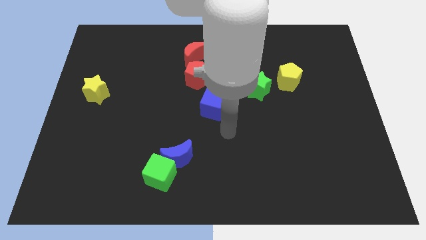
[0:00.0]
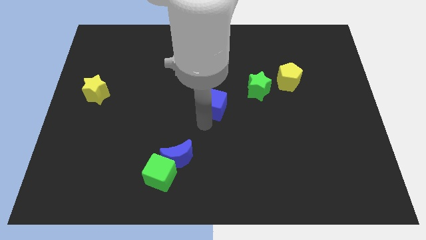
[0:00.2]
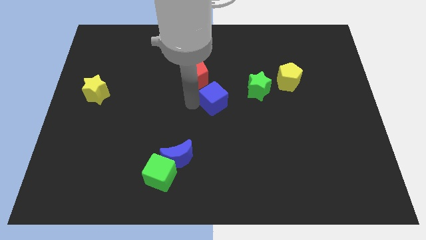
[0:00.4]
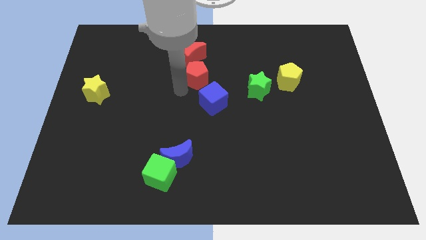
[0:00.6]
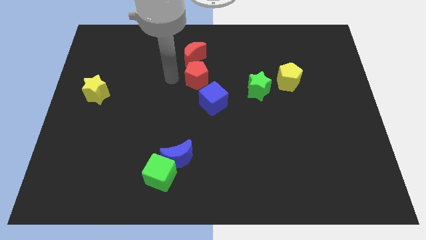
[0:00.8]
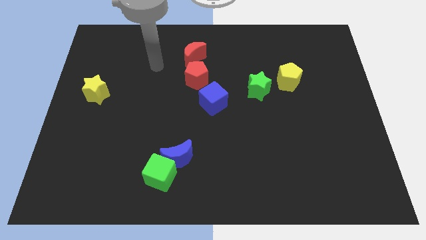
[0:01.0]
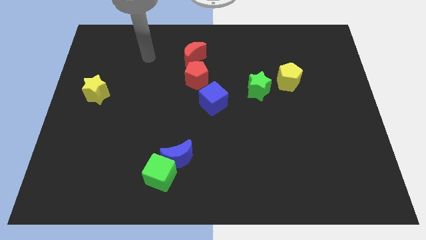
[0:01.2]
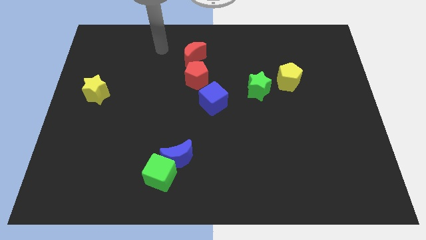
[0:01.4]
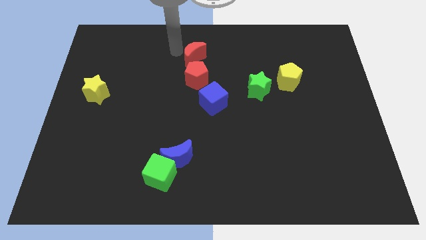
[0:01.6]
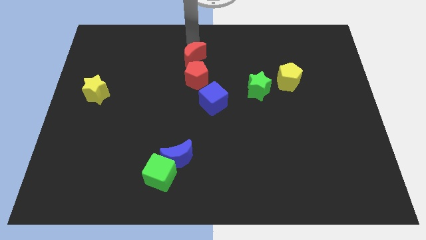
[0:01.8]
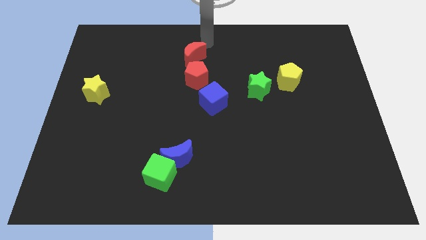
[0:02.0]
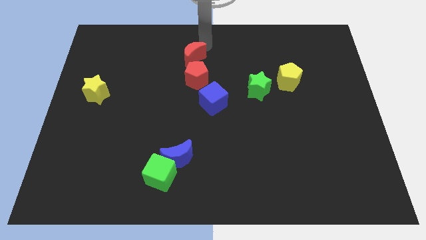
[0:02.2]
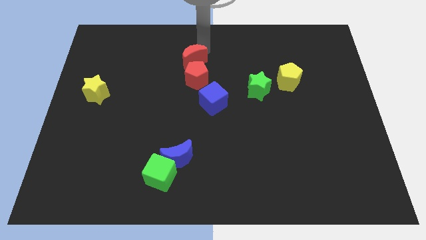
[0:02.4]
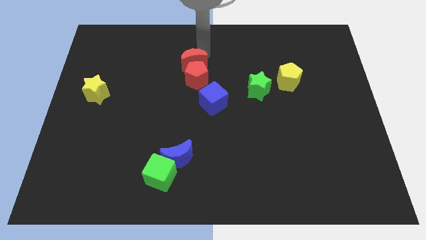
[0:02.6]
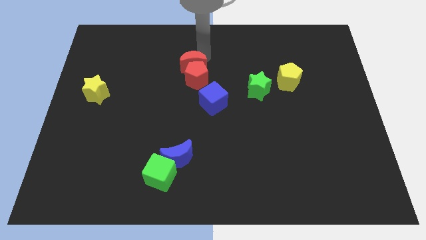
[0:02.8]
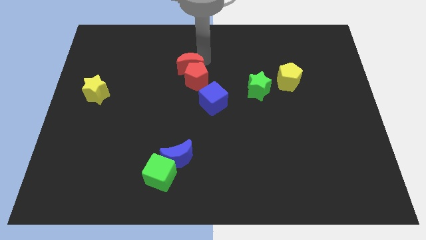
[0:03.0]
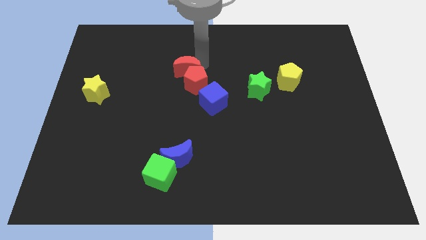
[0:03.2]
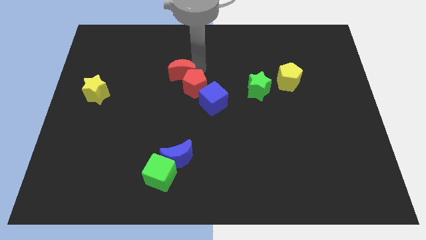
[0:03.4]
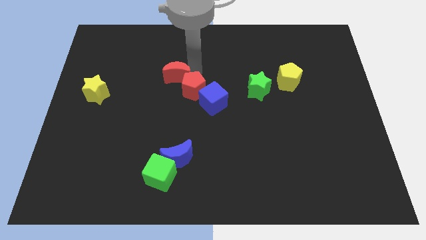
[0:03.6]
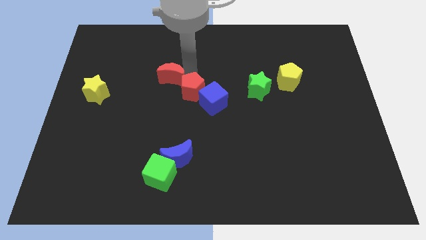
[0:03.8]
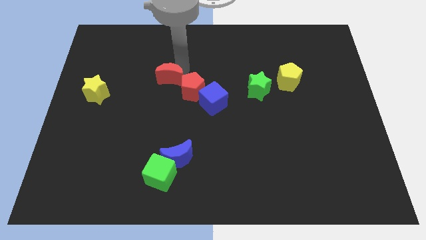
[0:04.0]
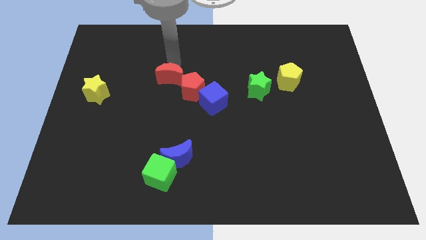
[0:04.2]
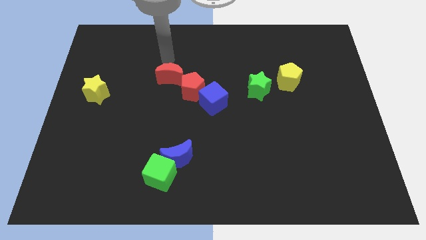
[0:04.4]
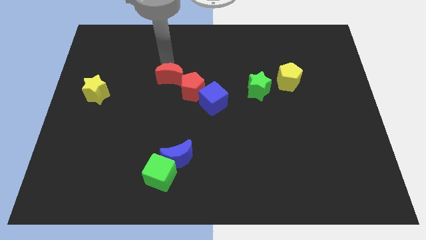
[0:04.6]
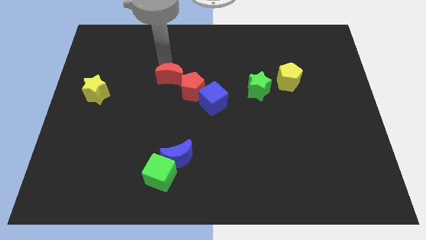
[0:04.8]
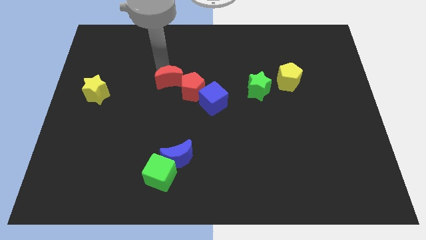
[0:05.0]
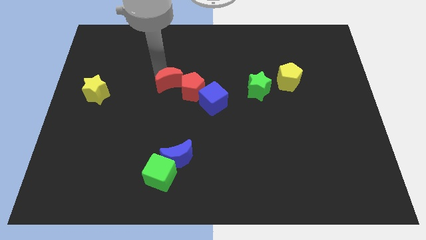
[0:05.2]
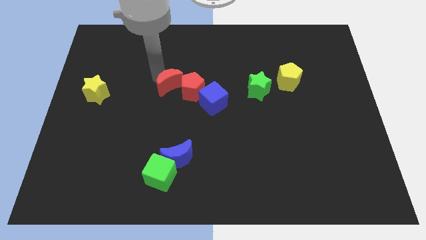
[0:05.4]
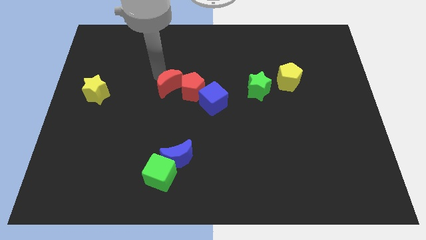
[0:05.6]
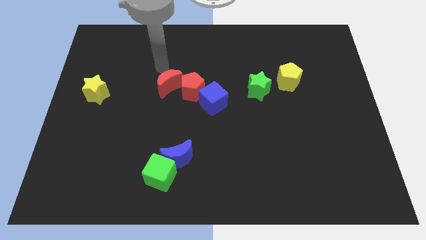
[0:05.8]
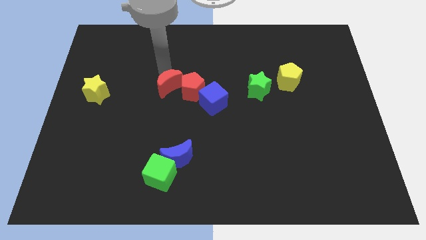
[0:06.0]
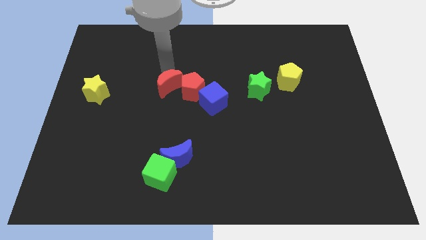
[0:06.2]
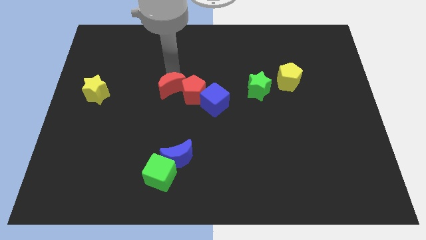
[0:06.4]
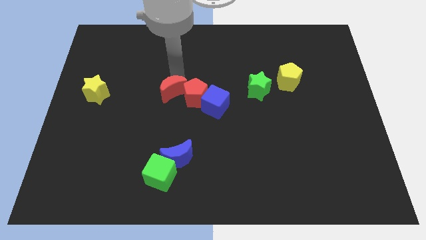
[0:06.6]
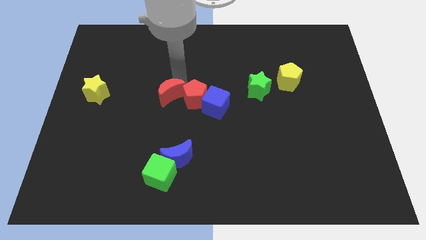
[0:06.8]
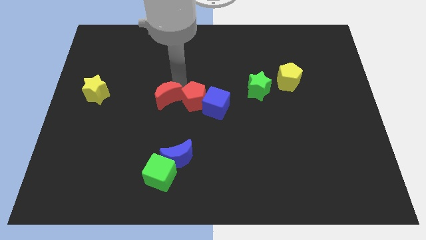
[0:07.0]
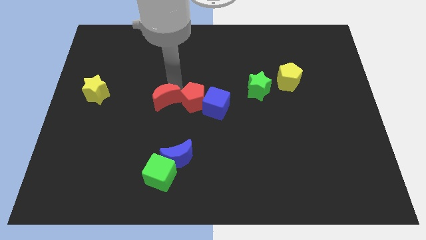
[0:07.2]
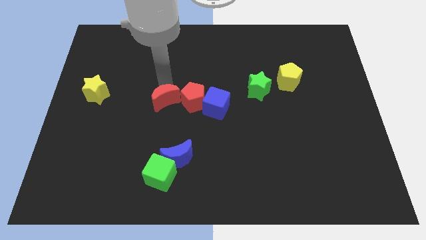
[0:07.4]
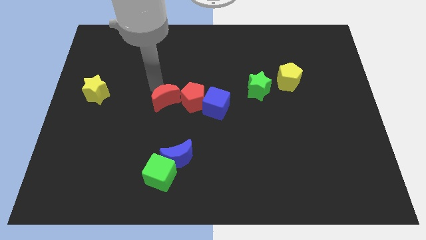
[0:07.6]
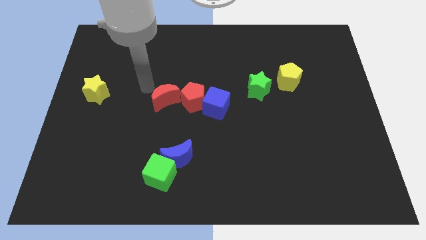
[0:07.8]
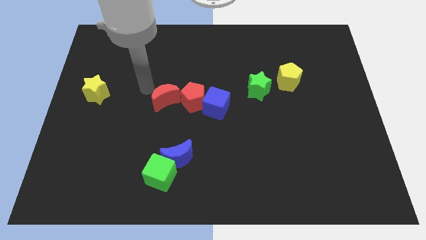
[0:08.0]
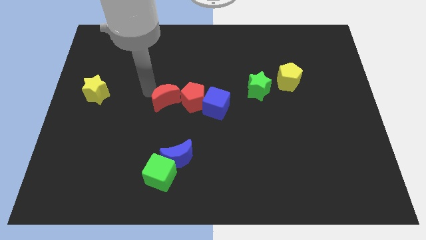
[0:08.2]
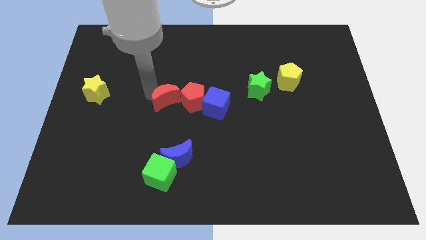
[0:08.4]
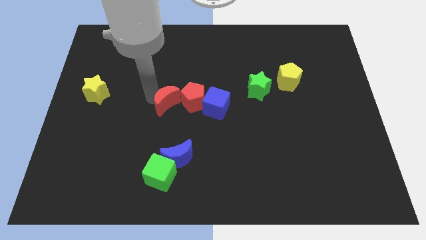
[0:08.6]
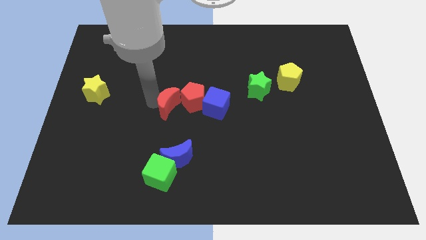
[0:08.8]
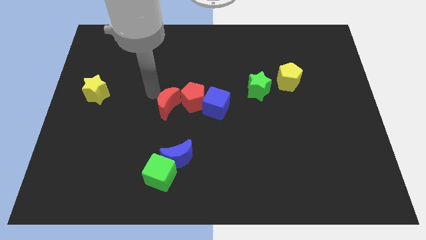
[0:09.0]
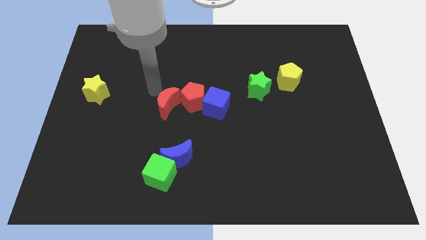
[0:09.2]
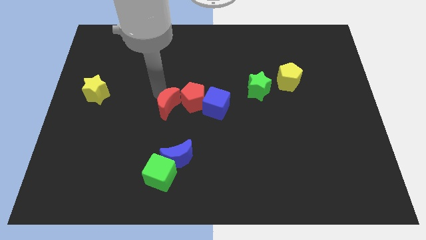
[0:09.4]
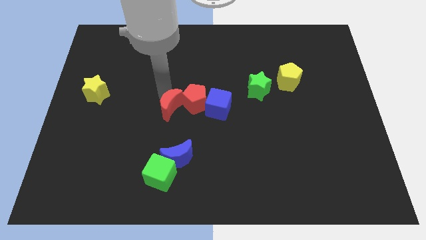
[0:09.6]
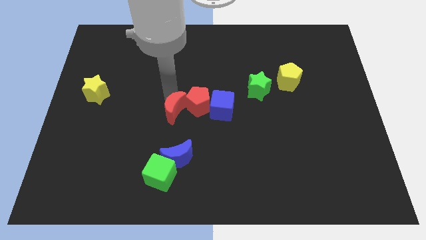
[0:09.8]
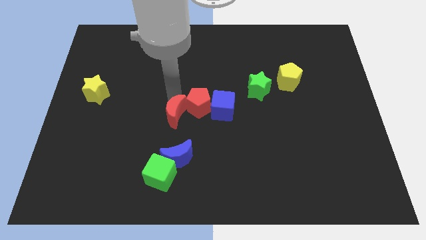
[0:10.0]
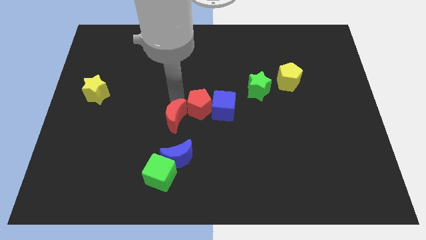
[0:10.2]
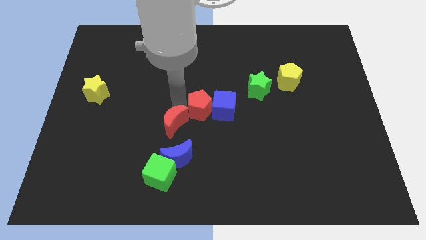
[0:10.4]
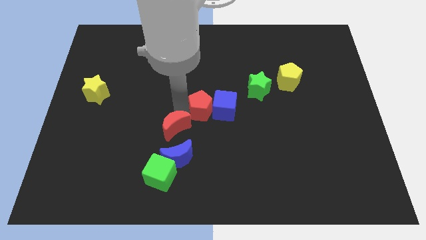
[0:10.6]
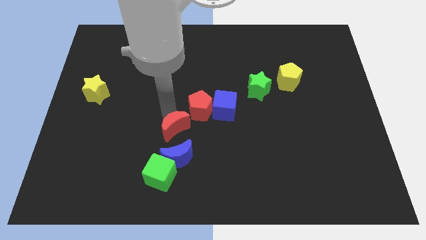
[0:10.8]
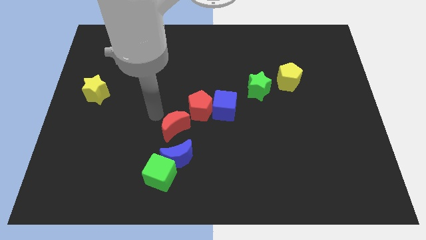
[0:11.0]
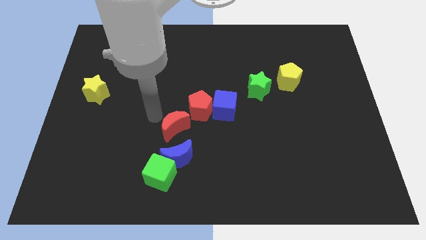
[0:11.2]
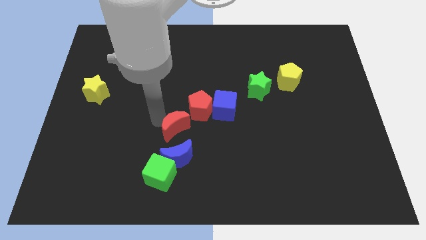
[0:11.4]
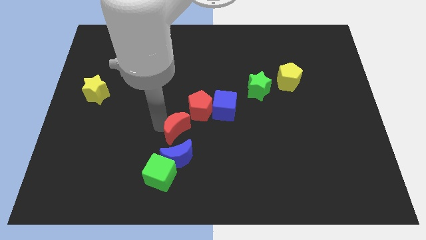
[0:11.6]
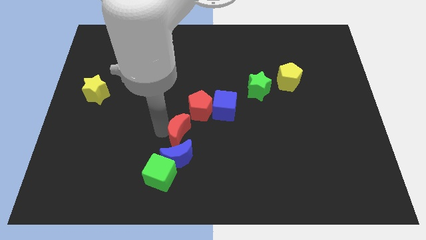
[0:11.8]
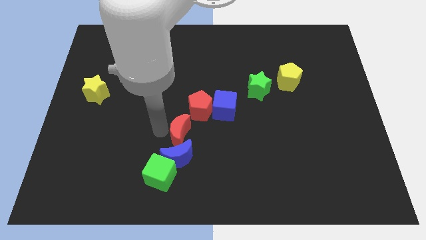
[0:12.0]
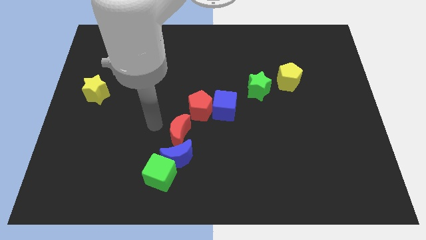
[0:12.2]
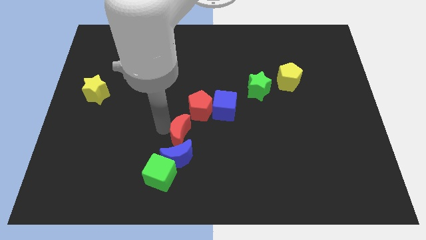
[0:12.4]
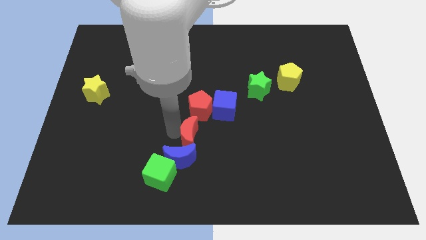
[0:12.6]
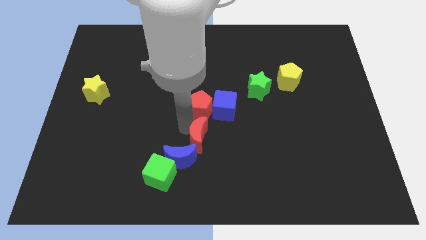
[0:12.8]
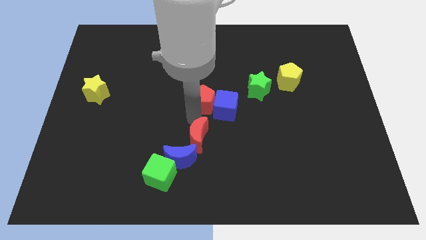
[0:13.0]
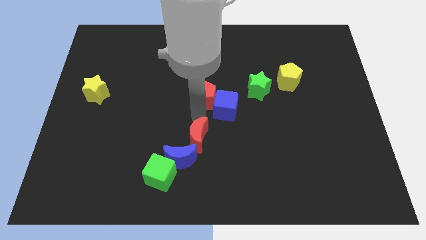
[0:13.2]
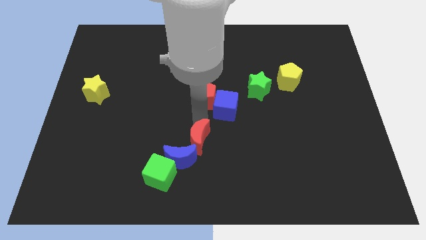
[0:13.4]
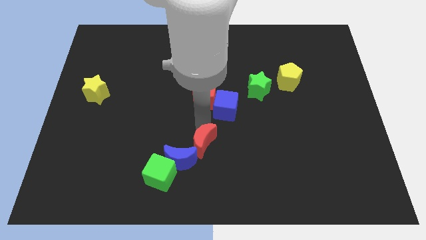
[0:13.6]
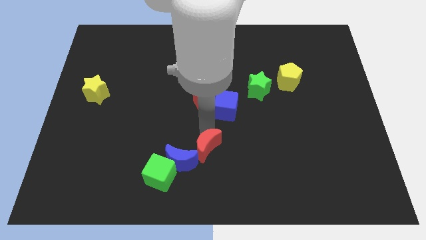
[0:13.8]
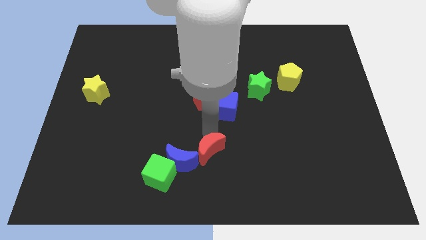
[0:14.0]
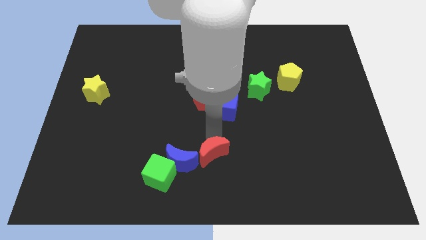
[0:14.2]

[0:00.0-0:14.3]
move the red moon to the bottom
